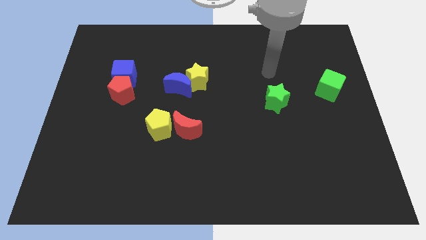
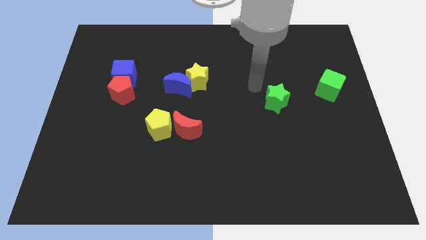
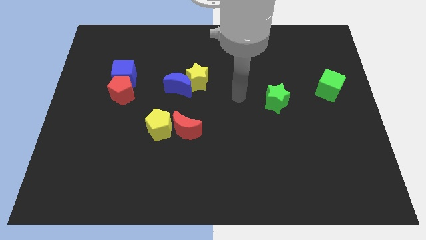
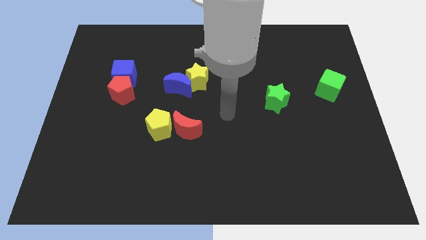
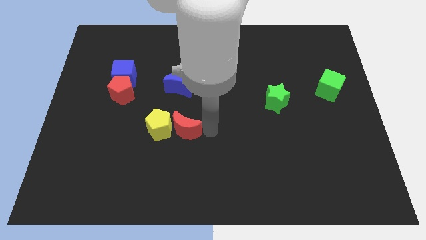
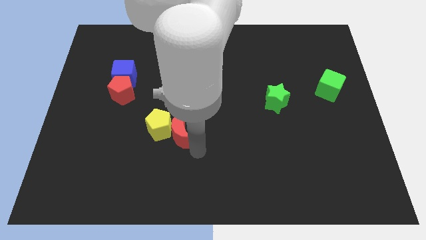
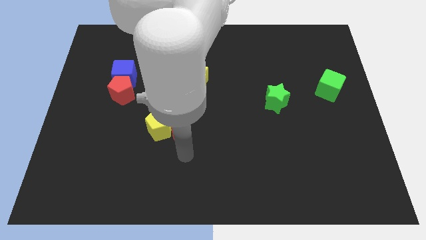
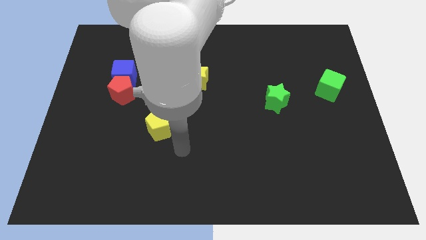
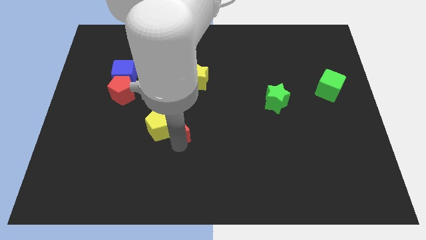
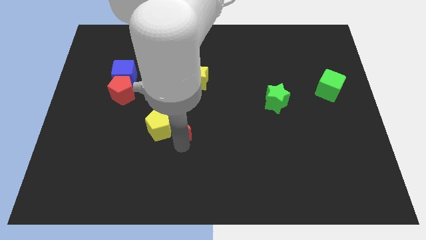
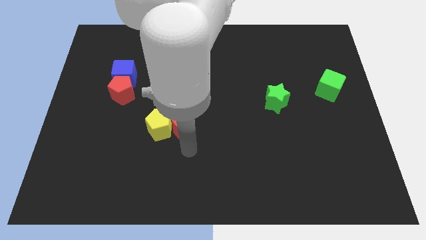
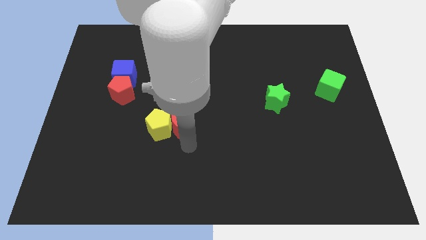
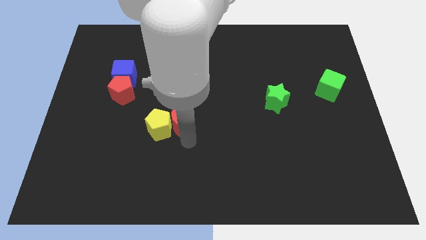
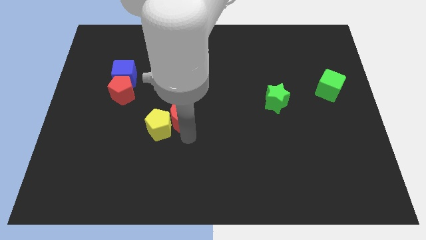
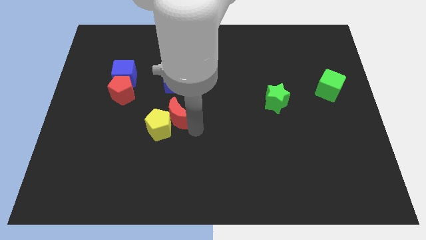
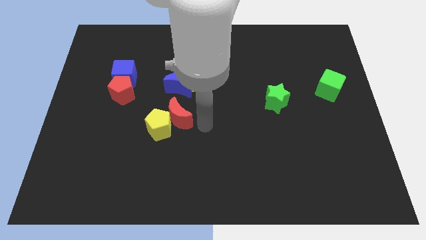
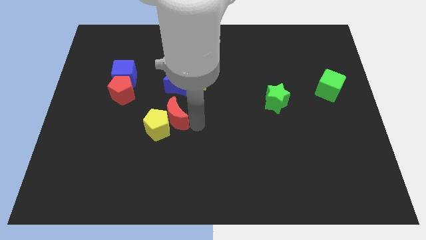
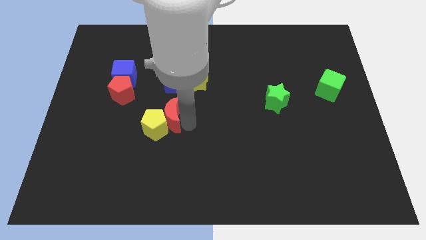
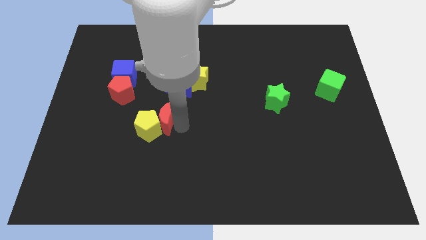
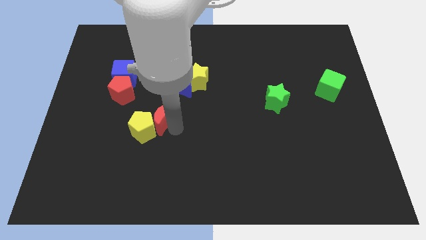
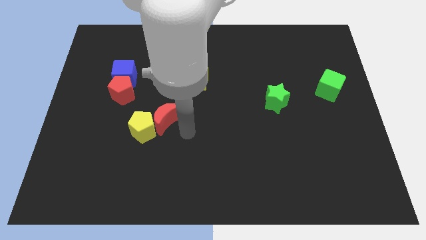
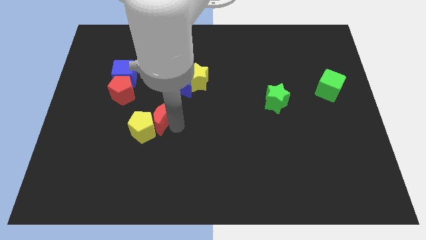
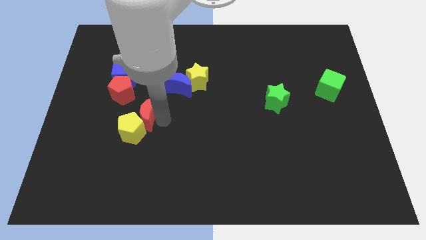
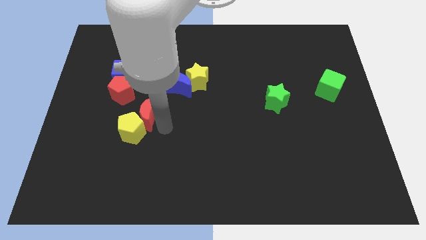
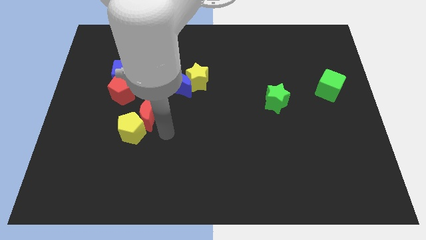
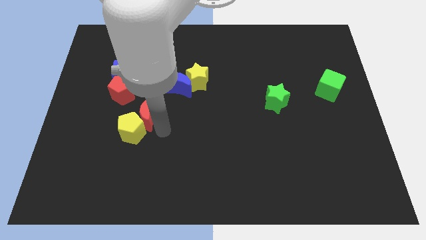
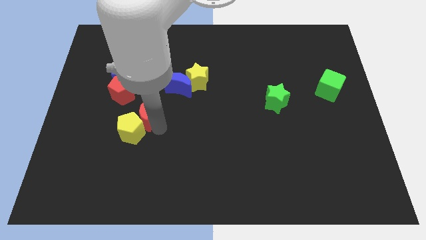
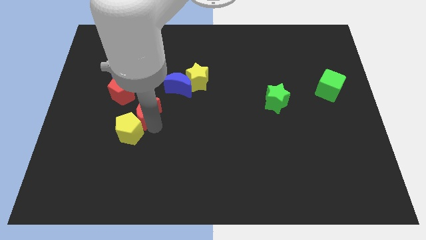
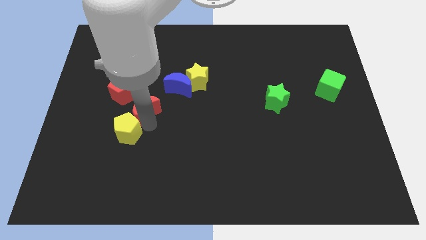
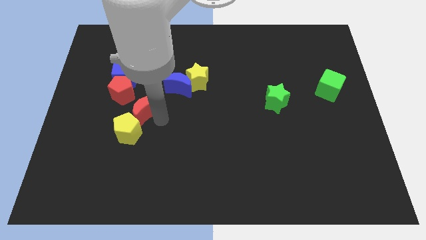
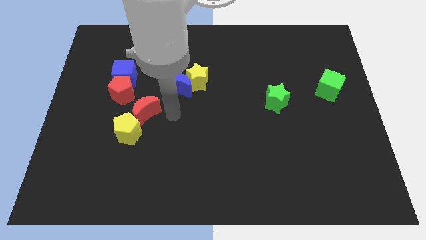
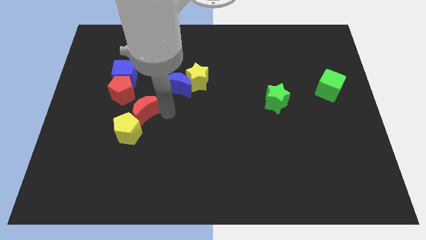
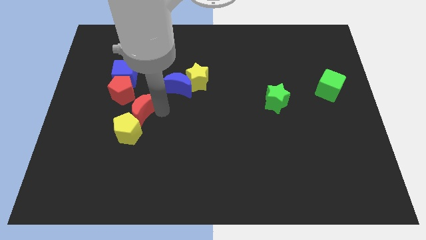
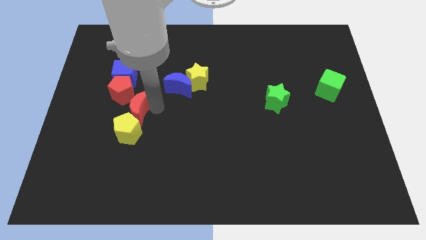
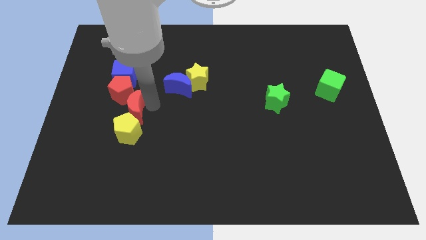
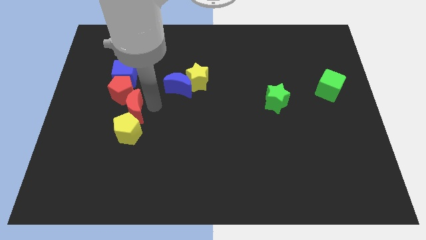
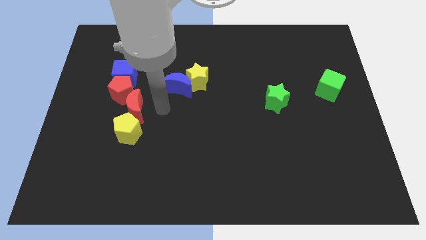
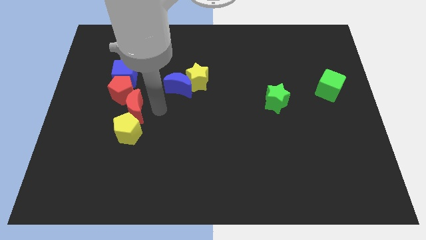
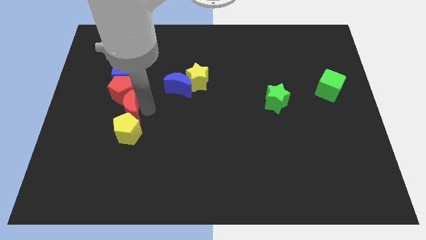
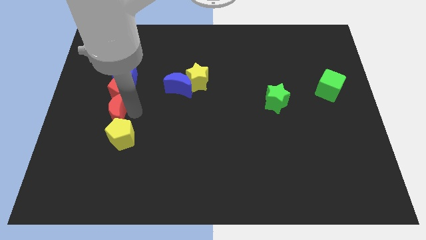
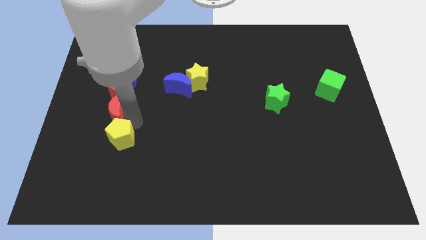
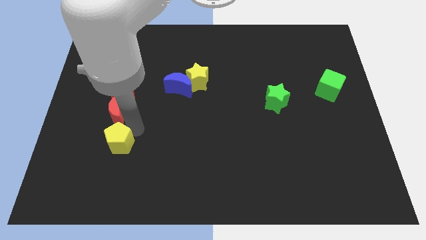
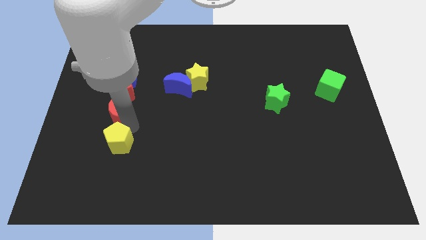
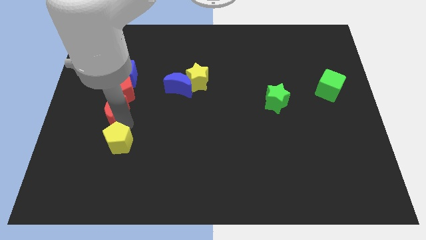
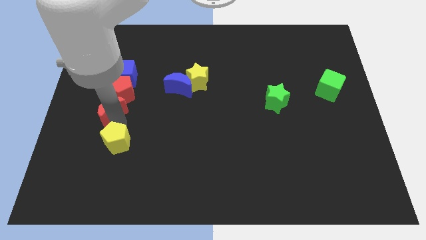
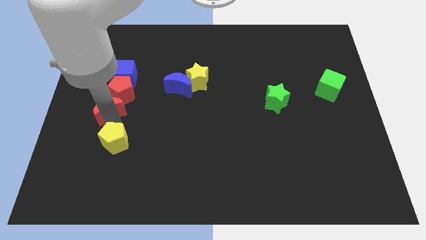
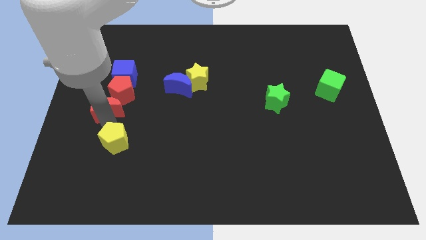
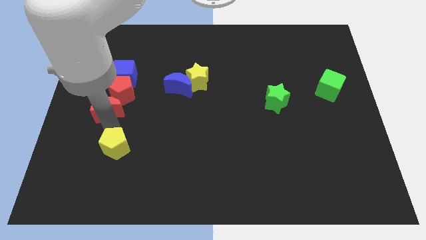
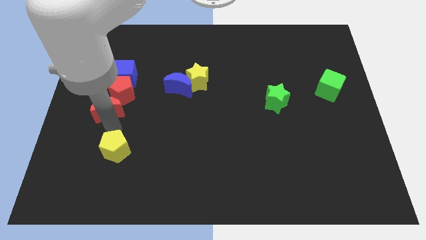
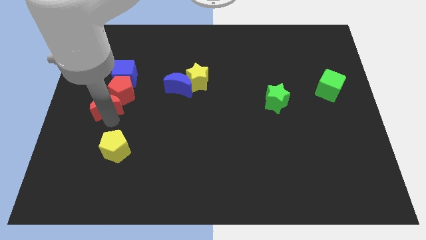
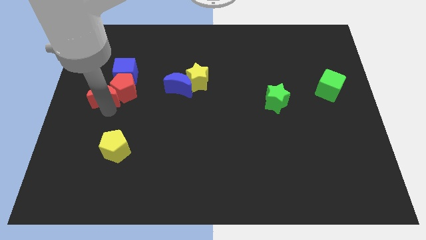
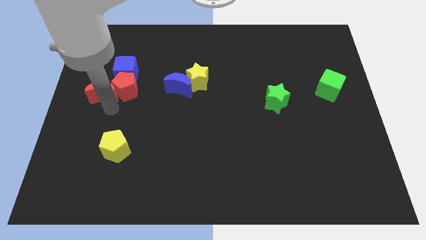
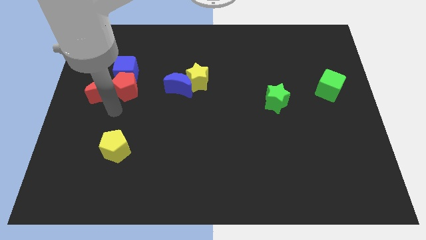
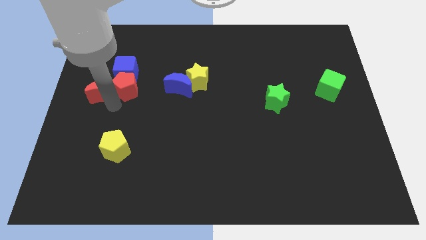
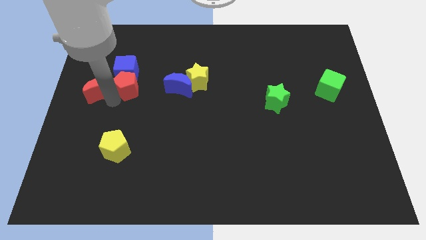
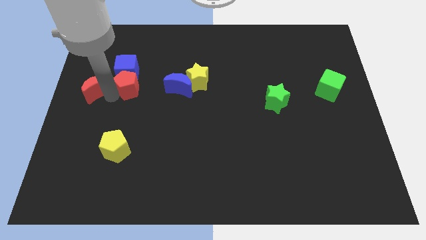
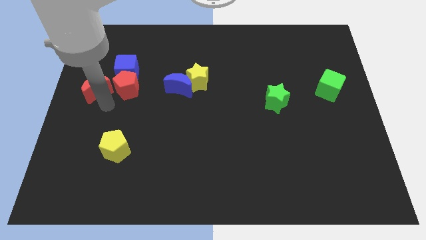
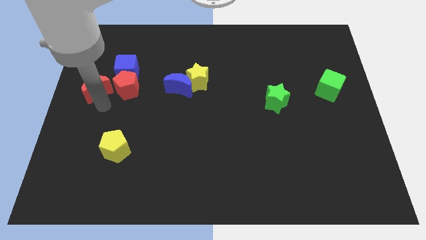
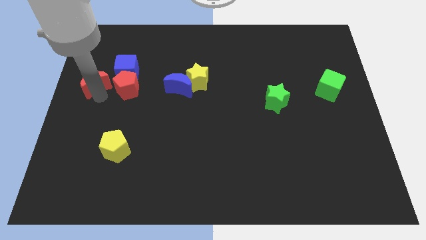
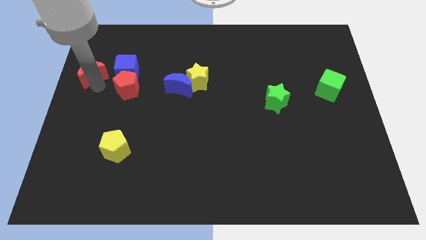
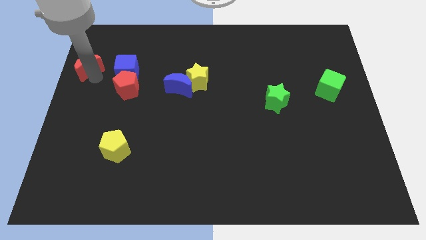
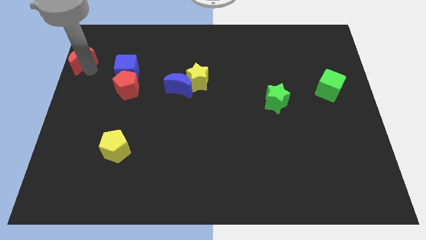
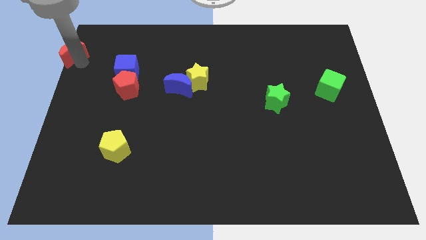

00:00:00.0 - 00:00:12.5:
put the red moon to the upper left corner
